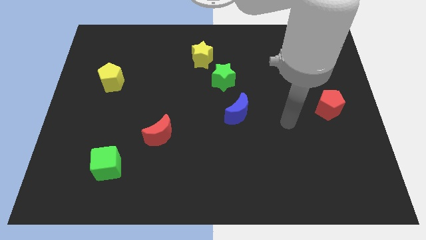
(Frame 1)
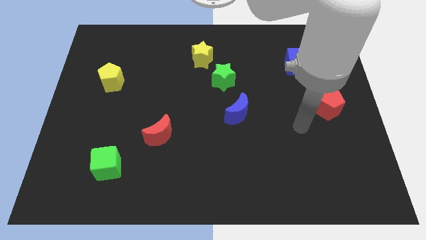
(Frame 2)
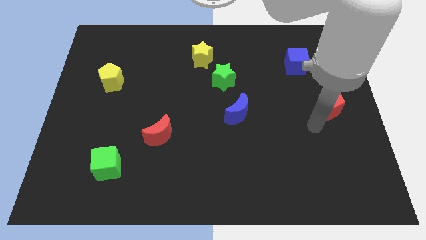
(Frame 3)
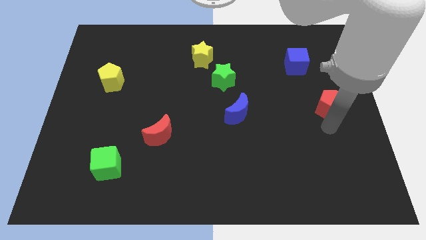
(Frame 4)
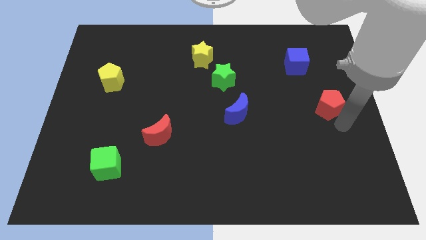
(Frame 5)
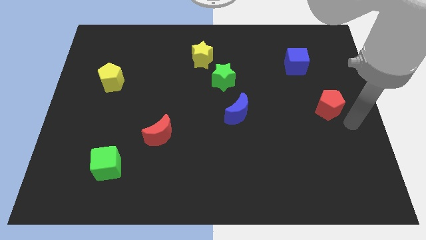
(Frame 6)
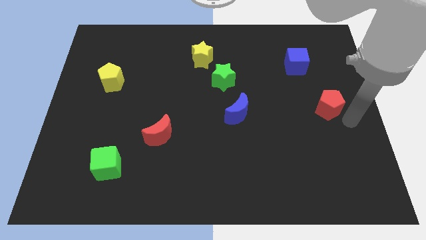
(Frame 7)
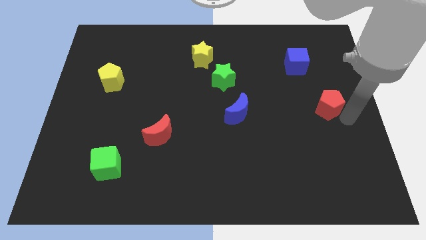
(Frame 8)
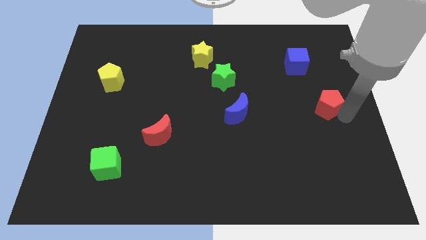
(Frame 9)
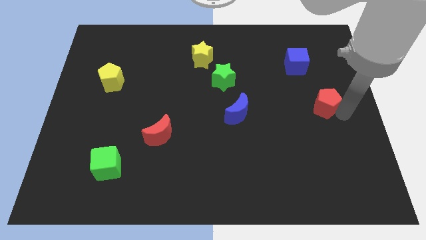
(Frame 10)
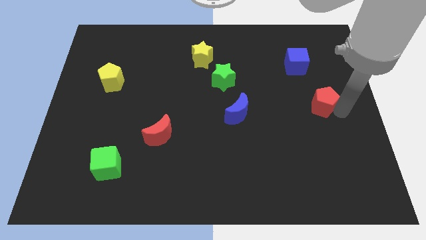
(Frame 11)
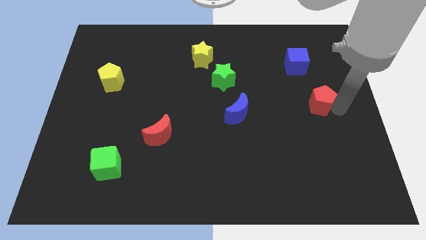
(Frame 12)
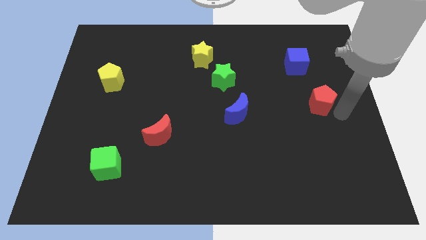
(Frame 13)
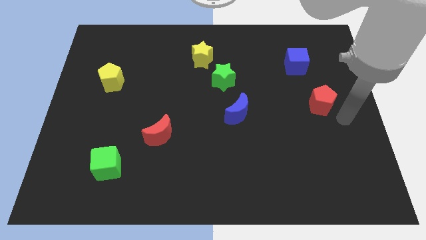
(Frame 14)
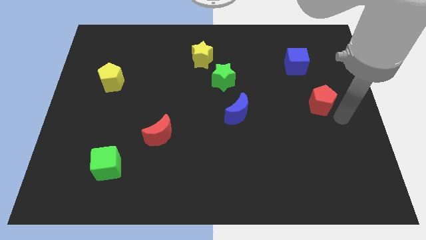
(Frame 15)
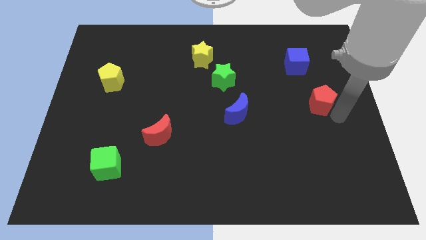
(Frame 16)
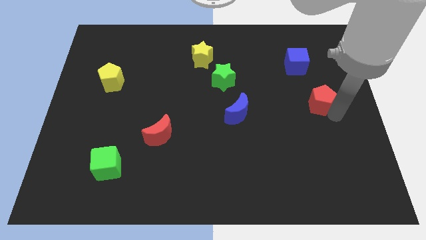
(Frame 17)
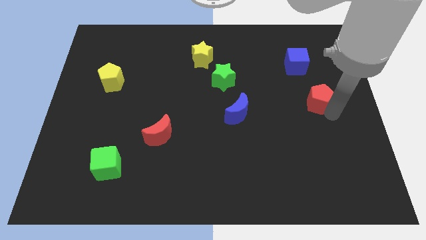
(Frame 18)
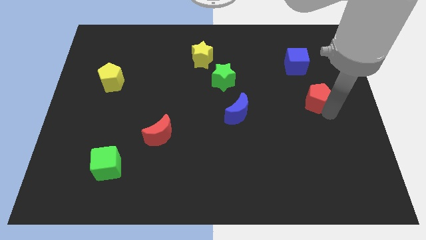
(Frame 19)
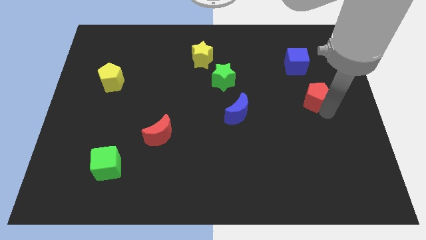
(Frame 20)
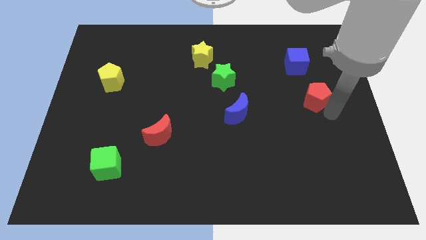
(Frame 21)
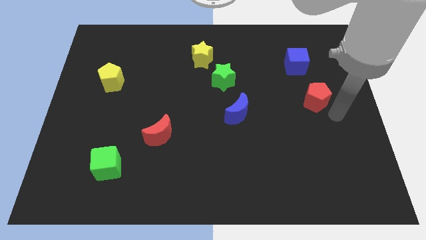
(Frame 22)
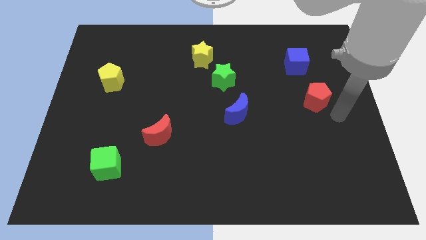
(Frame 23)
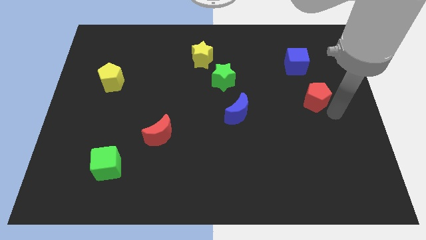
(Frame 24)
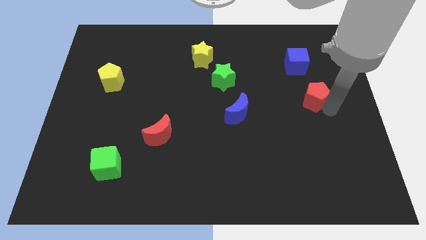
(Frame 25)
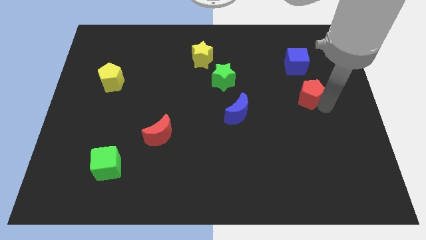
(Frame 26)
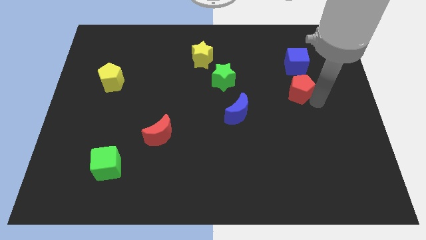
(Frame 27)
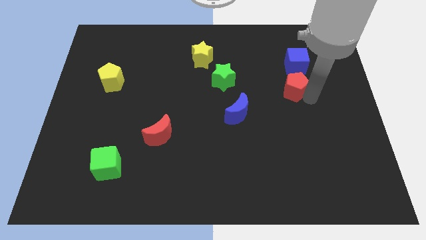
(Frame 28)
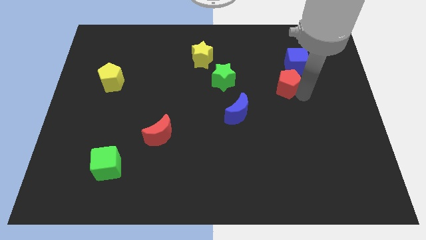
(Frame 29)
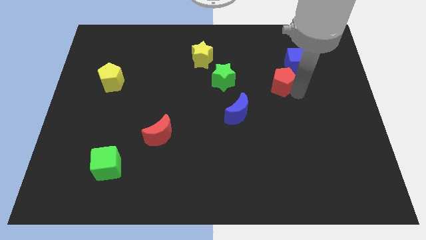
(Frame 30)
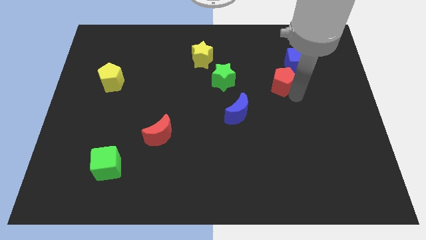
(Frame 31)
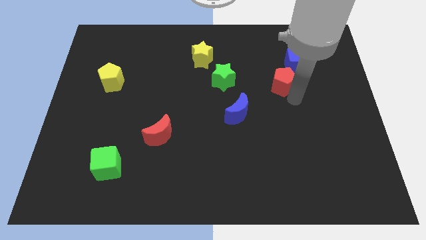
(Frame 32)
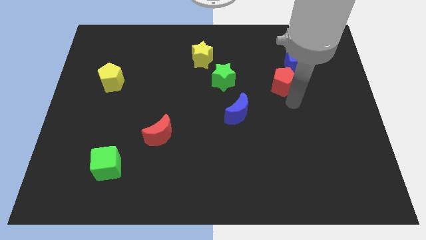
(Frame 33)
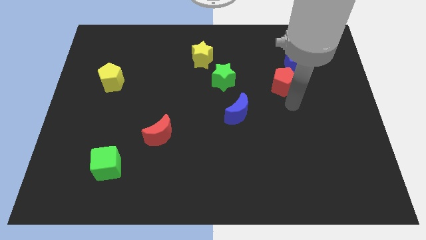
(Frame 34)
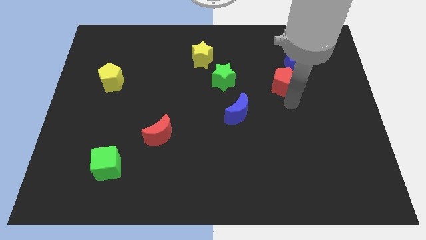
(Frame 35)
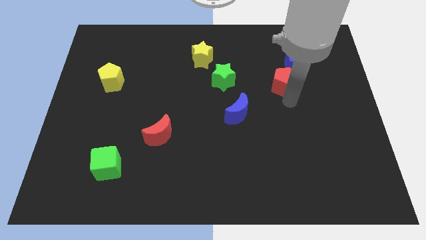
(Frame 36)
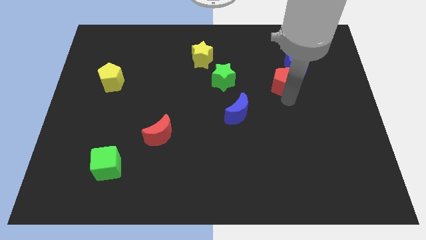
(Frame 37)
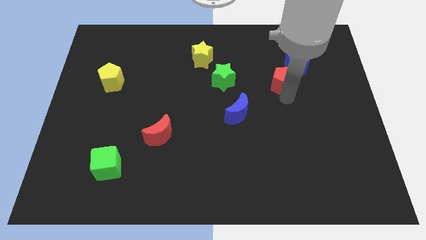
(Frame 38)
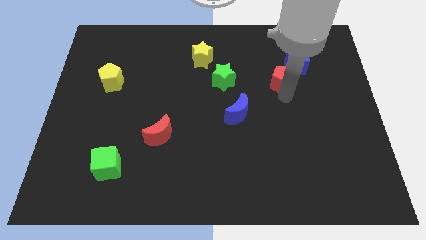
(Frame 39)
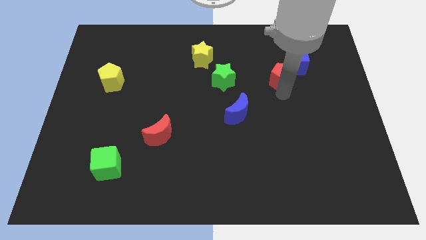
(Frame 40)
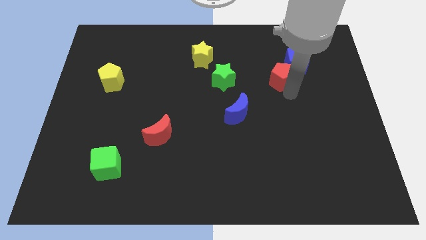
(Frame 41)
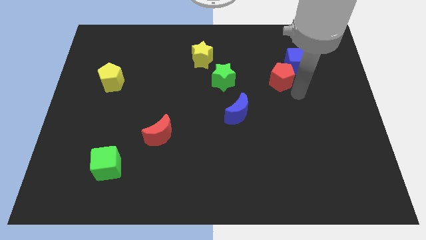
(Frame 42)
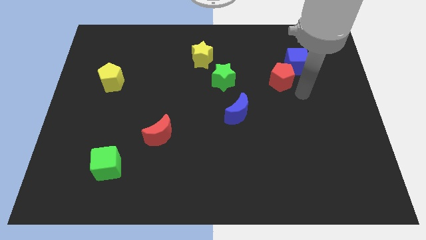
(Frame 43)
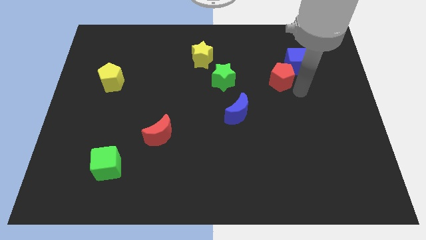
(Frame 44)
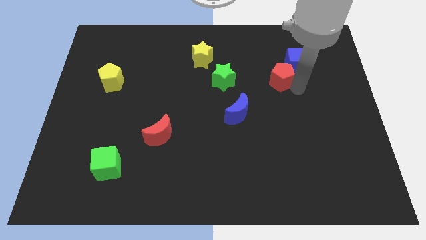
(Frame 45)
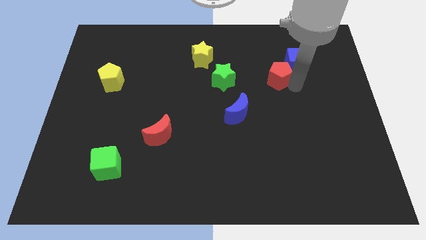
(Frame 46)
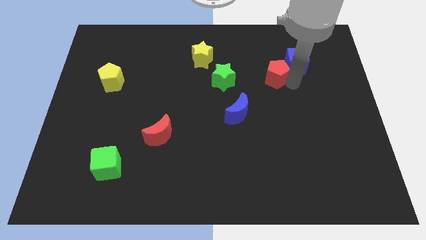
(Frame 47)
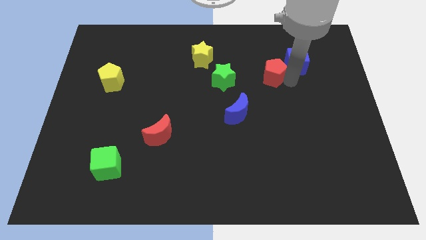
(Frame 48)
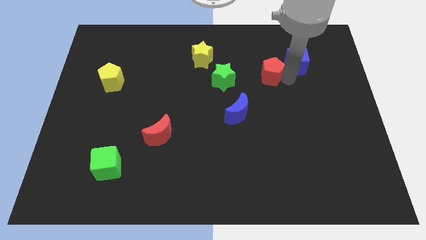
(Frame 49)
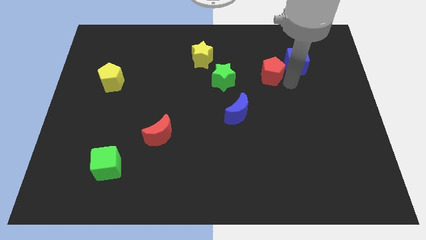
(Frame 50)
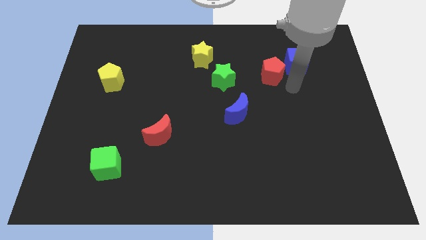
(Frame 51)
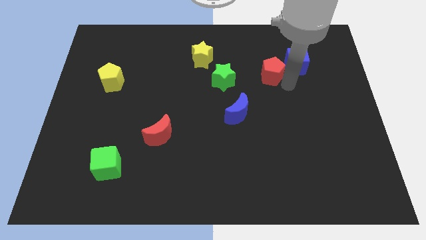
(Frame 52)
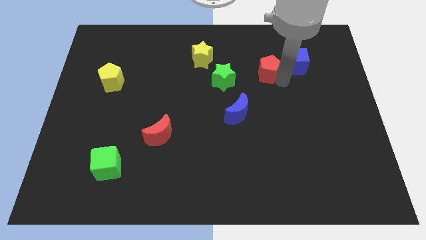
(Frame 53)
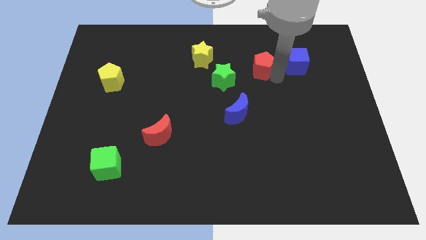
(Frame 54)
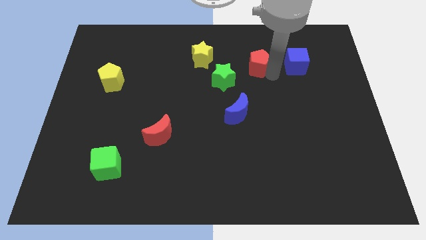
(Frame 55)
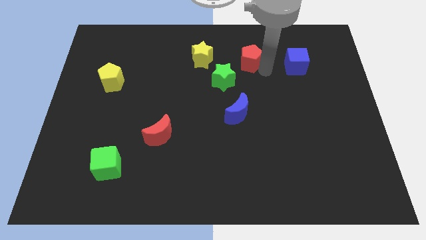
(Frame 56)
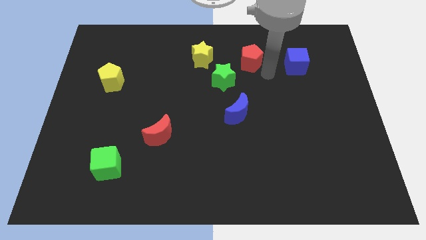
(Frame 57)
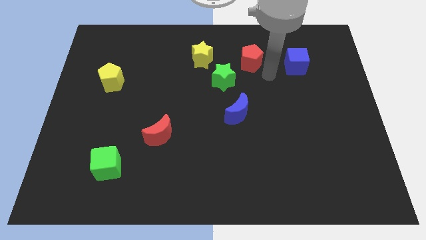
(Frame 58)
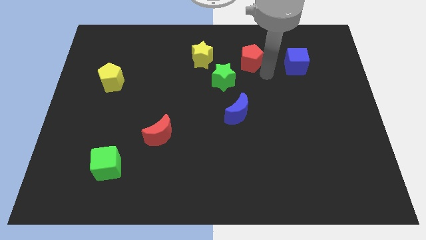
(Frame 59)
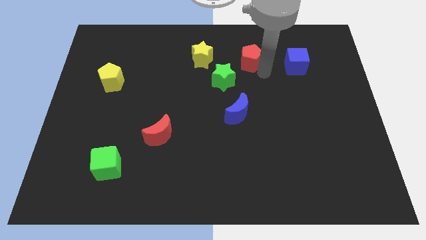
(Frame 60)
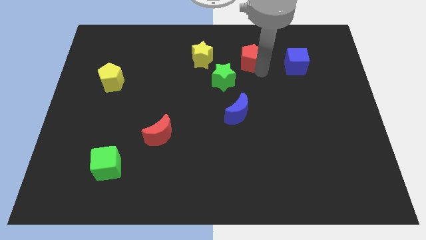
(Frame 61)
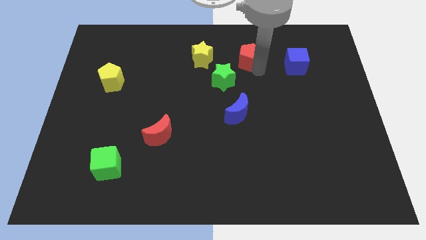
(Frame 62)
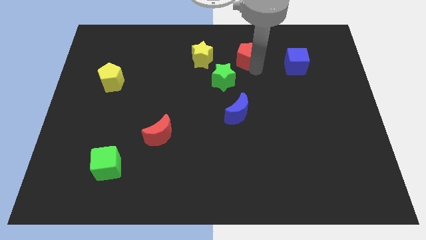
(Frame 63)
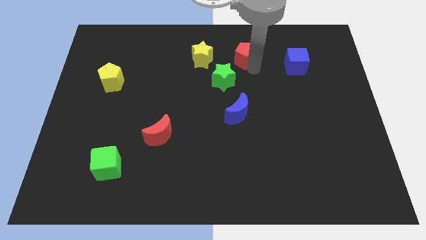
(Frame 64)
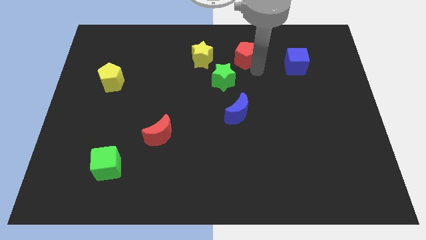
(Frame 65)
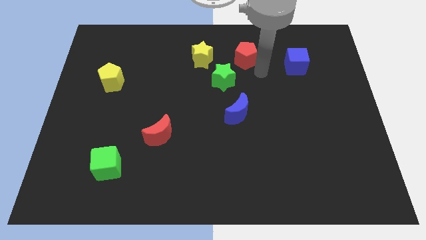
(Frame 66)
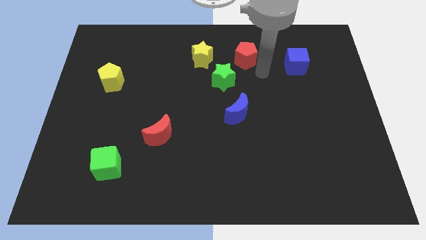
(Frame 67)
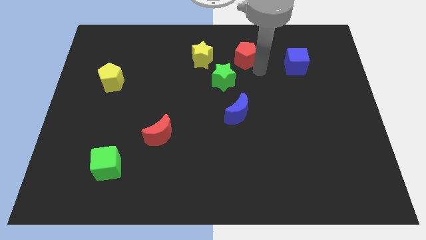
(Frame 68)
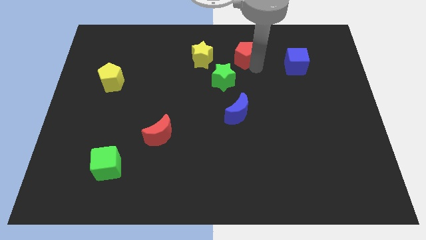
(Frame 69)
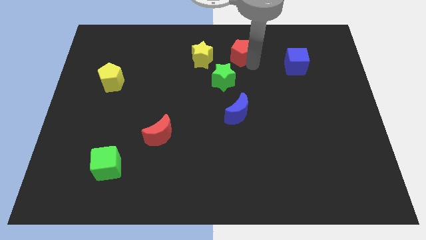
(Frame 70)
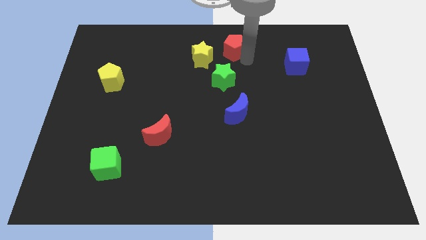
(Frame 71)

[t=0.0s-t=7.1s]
push the red pentagon to the top
